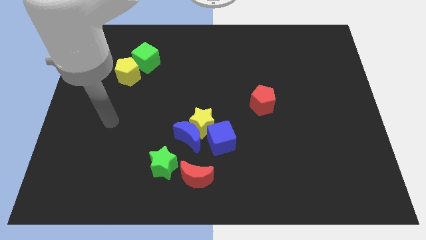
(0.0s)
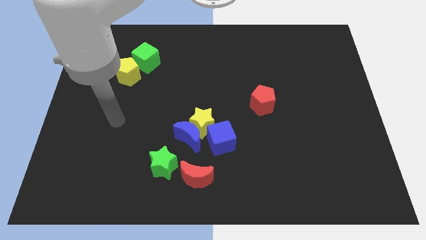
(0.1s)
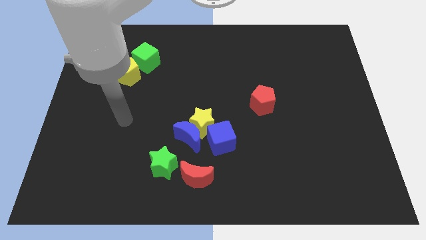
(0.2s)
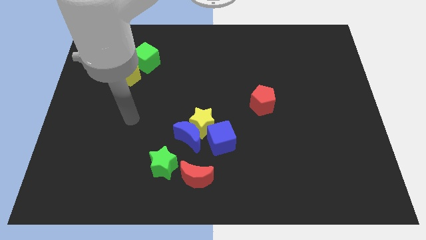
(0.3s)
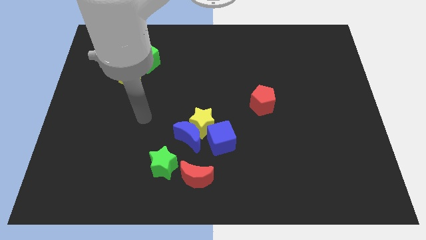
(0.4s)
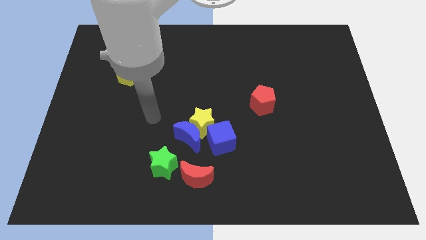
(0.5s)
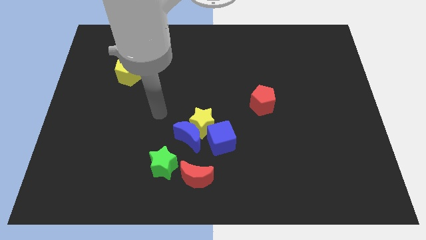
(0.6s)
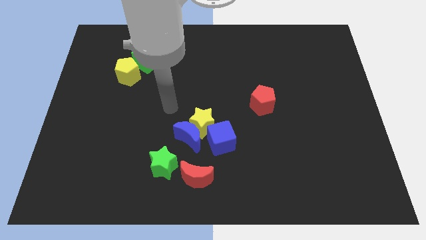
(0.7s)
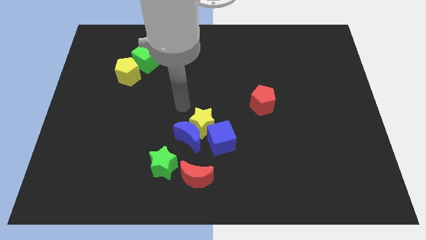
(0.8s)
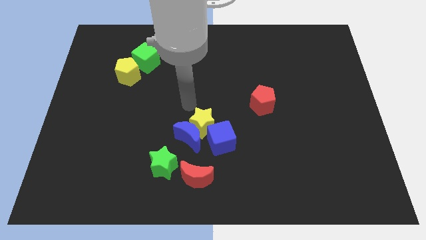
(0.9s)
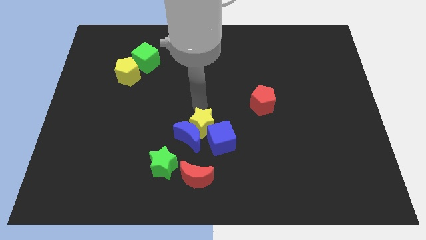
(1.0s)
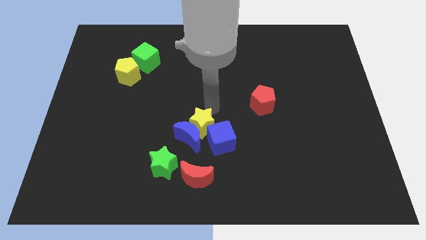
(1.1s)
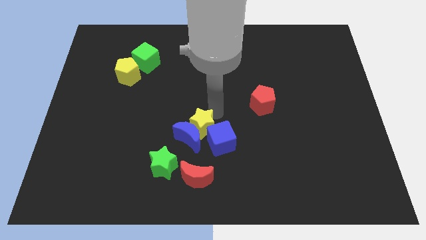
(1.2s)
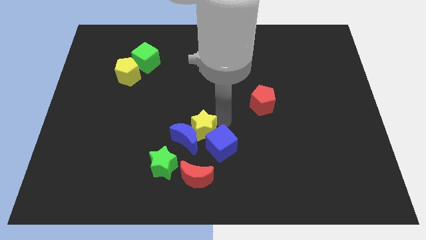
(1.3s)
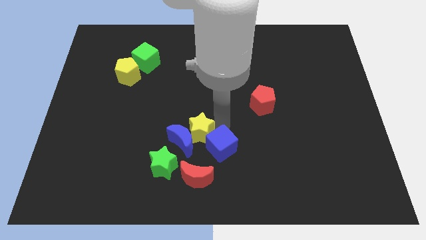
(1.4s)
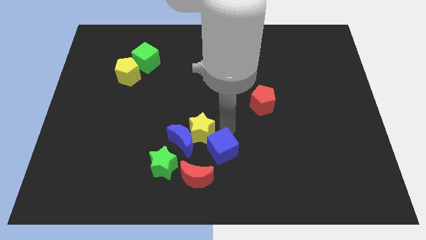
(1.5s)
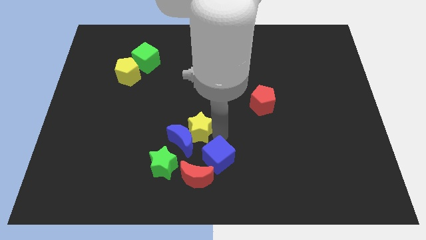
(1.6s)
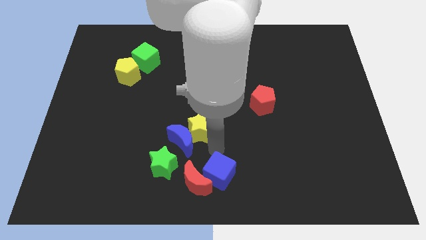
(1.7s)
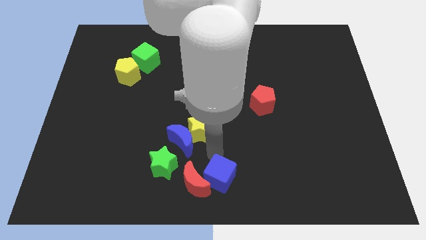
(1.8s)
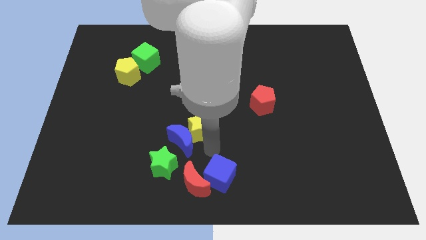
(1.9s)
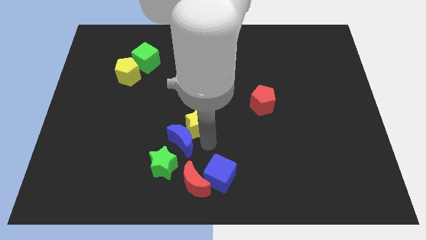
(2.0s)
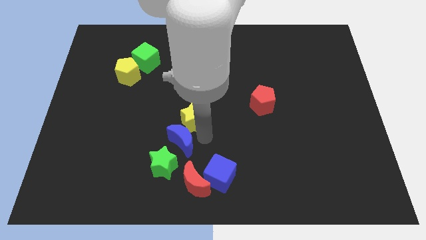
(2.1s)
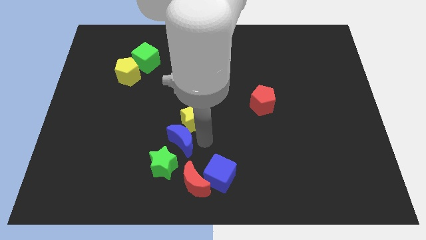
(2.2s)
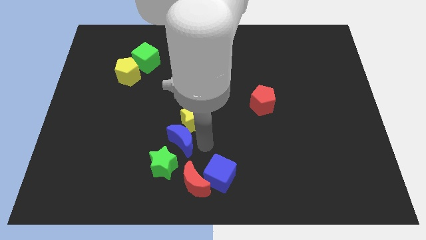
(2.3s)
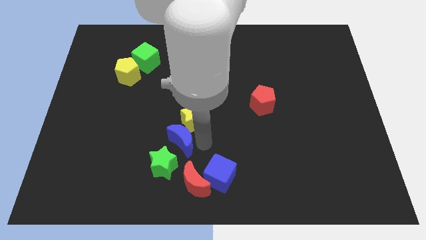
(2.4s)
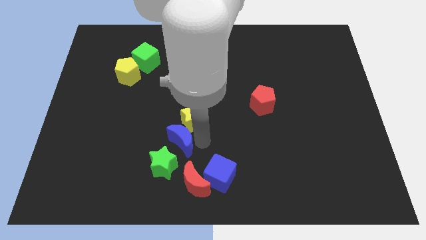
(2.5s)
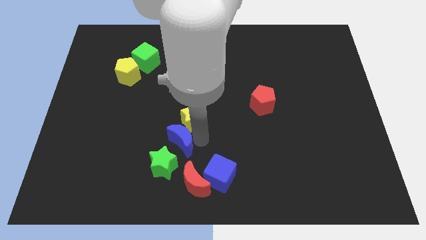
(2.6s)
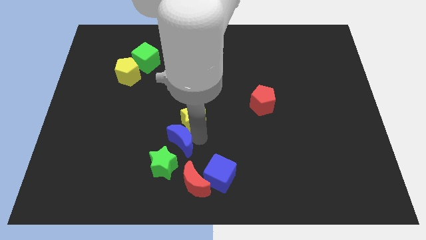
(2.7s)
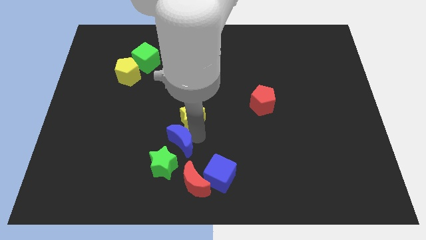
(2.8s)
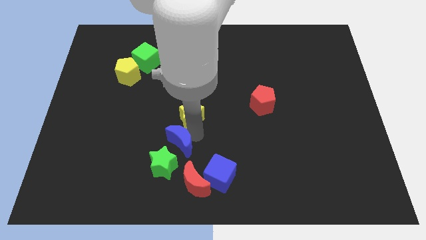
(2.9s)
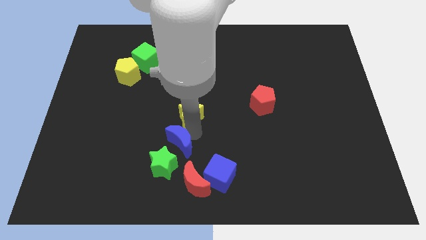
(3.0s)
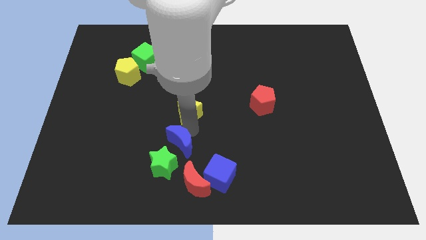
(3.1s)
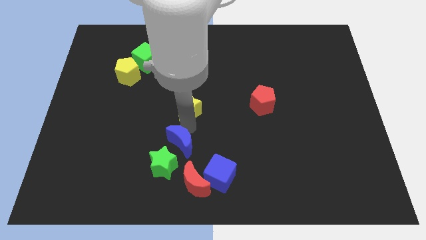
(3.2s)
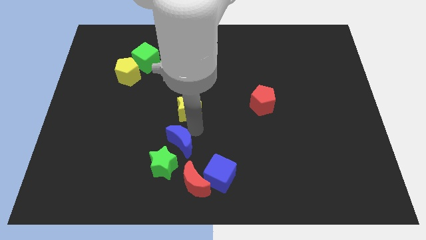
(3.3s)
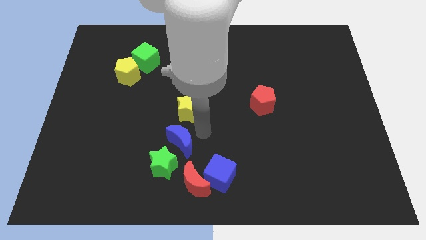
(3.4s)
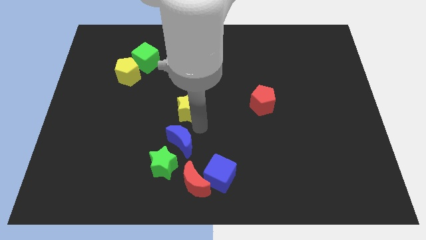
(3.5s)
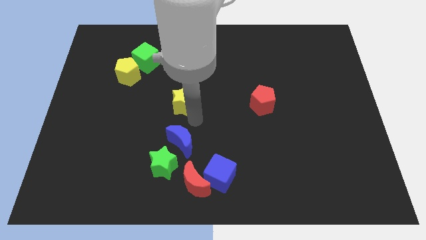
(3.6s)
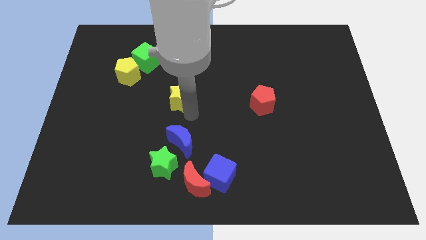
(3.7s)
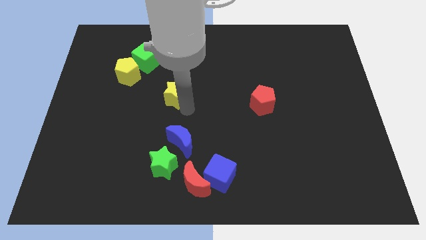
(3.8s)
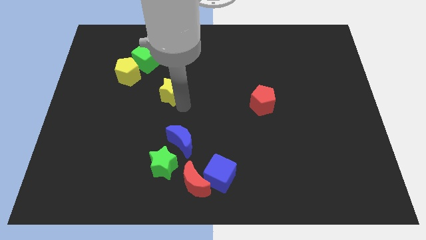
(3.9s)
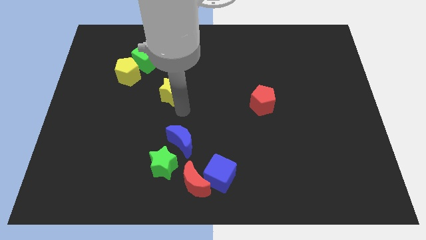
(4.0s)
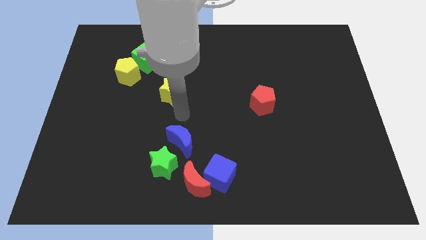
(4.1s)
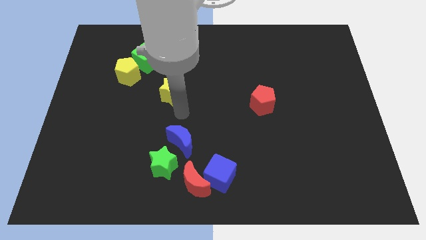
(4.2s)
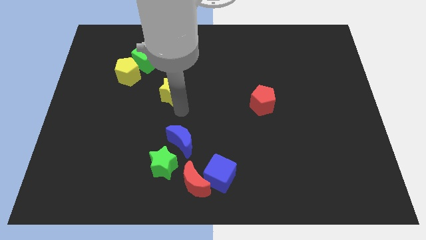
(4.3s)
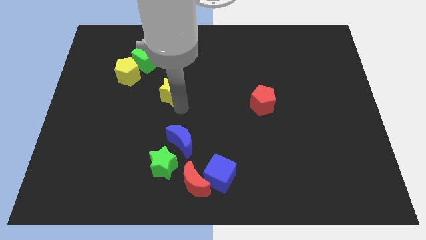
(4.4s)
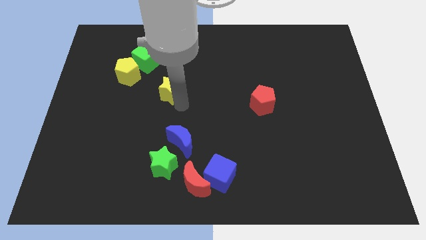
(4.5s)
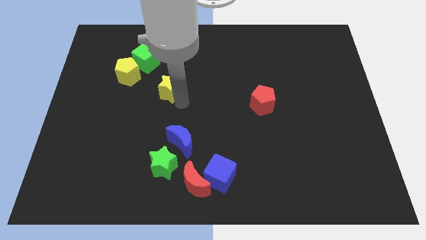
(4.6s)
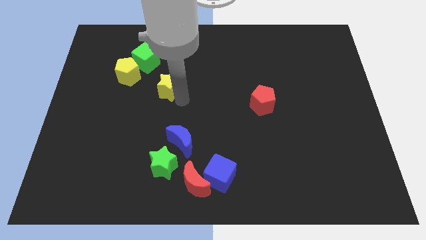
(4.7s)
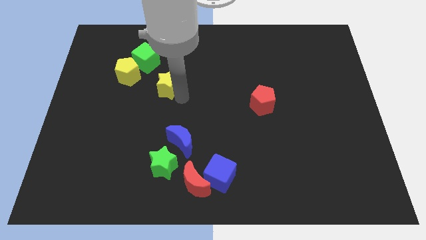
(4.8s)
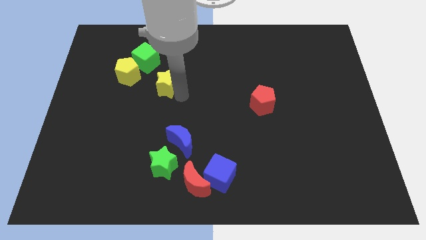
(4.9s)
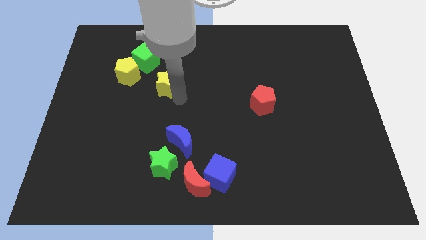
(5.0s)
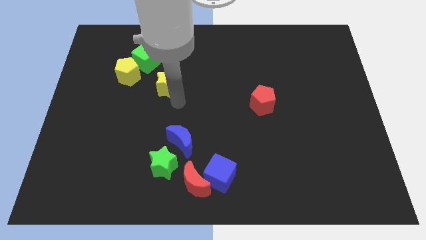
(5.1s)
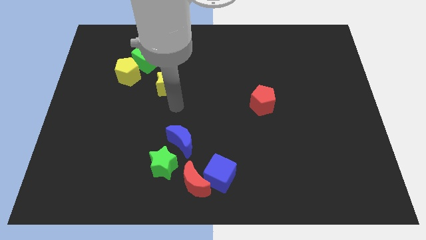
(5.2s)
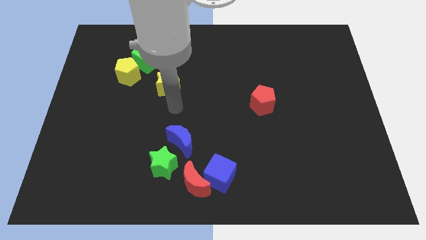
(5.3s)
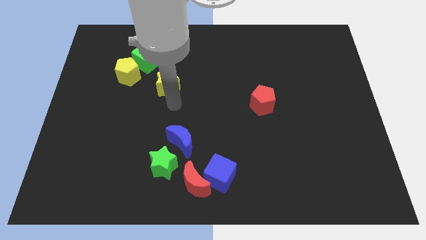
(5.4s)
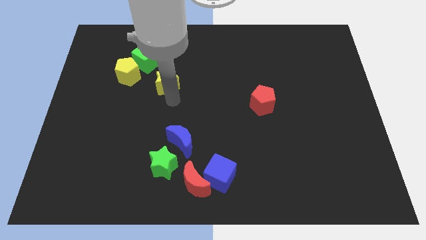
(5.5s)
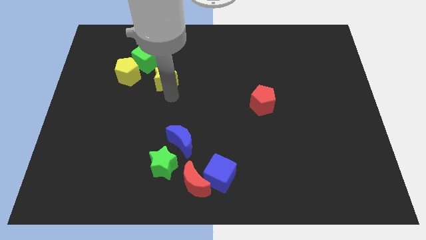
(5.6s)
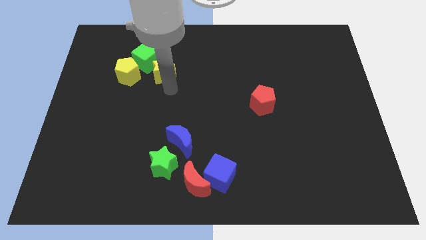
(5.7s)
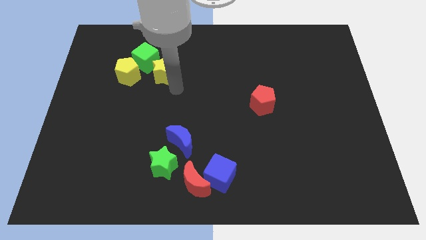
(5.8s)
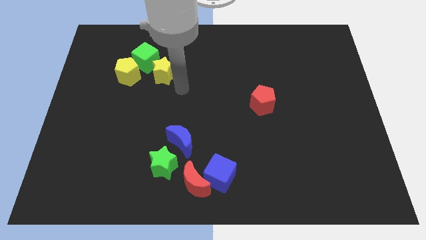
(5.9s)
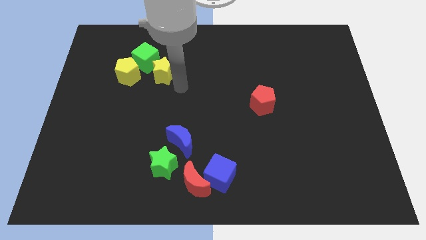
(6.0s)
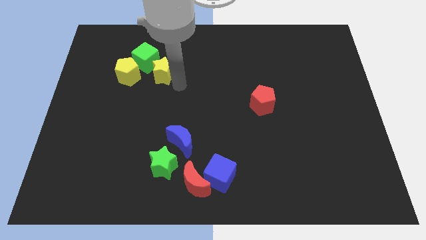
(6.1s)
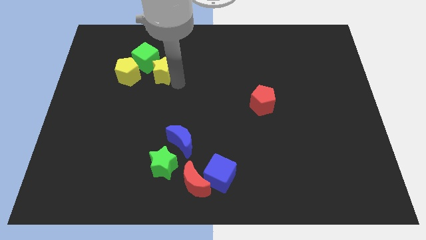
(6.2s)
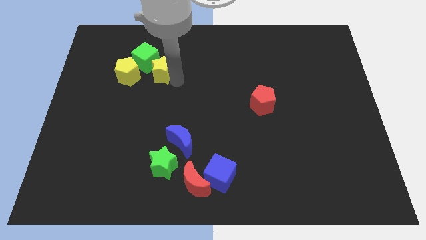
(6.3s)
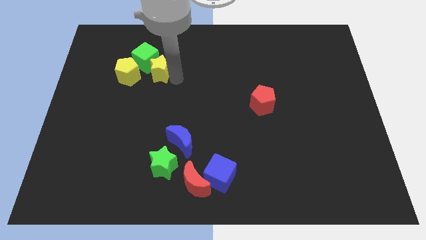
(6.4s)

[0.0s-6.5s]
push the yellow star next to the green cube

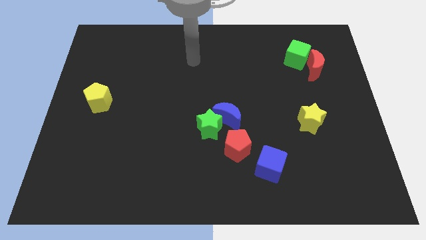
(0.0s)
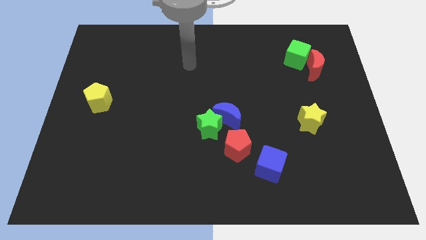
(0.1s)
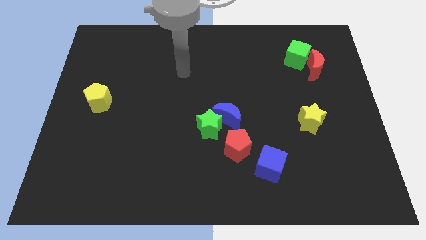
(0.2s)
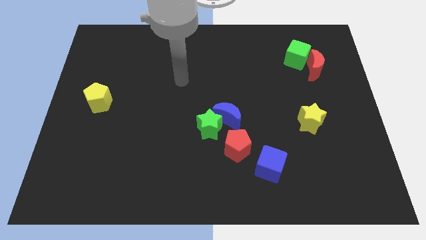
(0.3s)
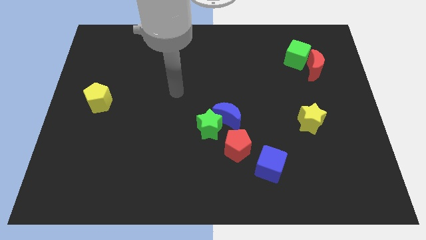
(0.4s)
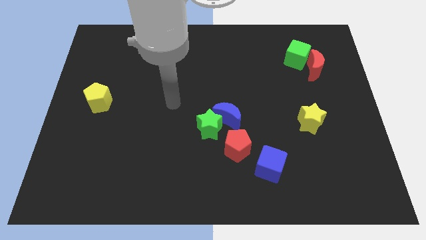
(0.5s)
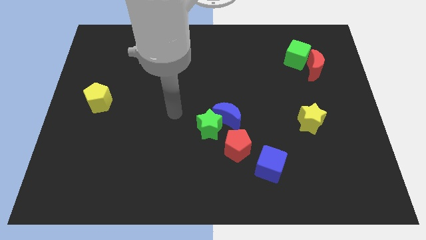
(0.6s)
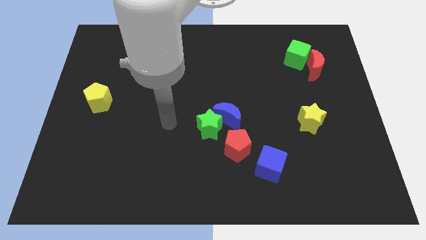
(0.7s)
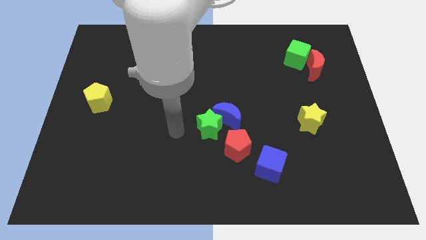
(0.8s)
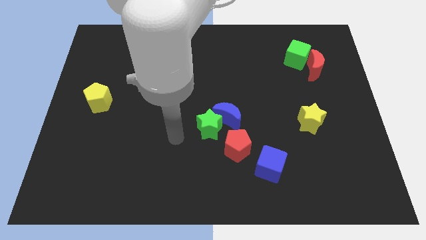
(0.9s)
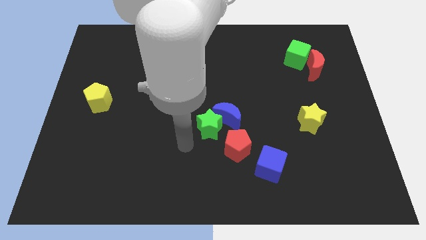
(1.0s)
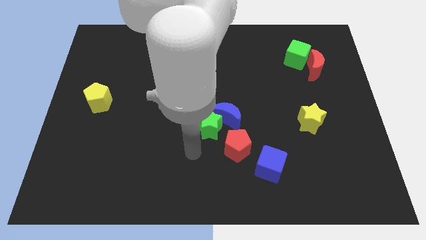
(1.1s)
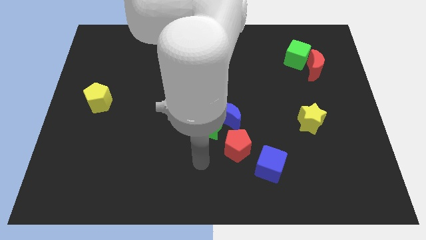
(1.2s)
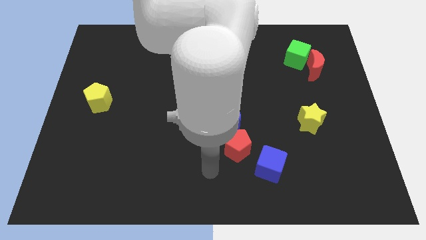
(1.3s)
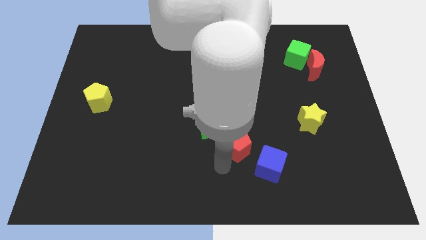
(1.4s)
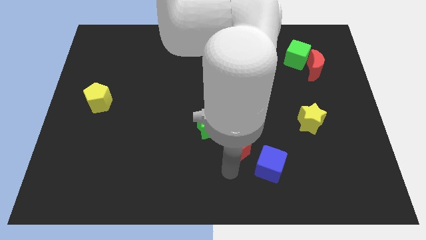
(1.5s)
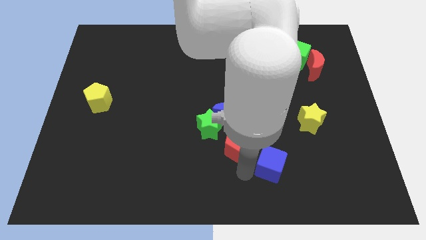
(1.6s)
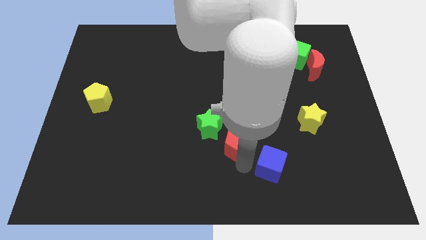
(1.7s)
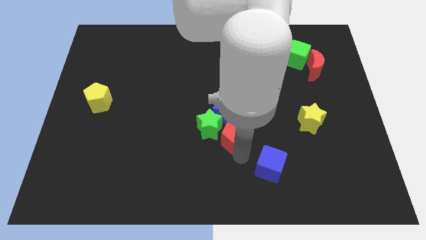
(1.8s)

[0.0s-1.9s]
put the red pentagon towards the blue moon
